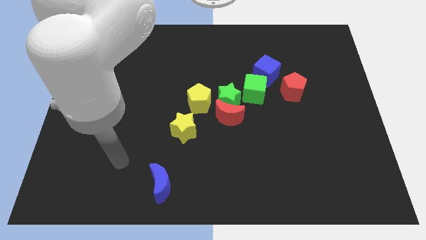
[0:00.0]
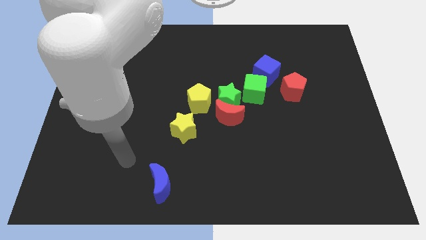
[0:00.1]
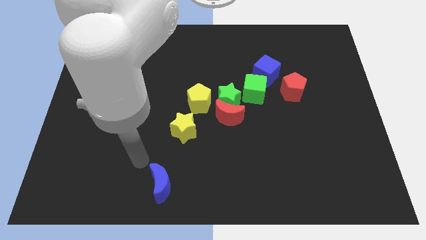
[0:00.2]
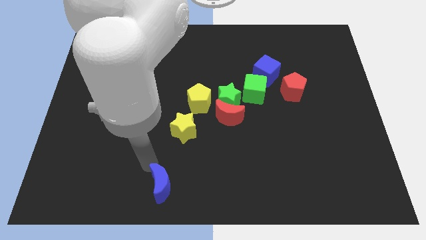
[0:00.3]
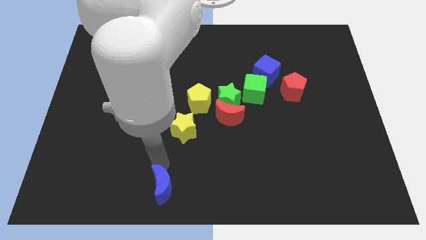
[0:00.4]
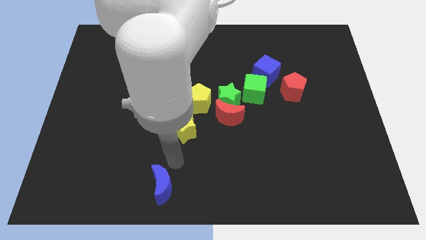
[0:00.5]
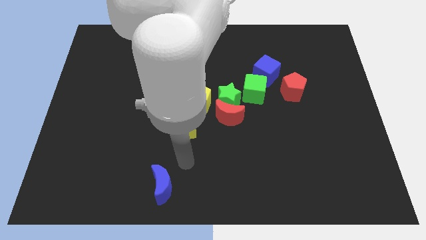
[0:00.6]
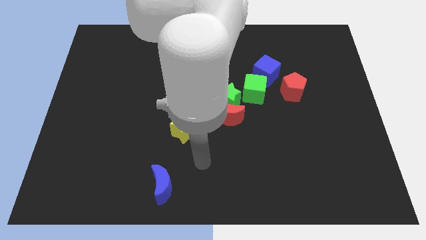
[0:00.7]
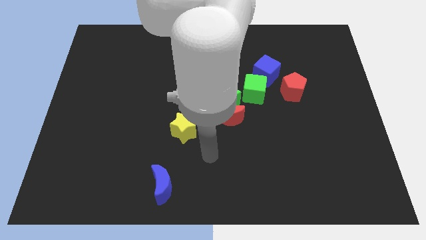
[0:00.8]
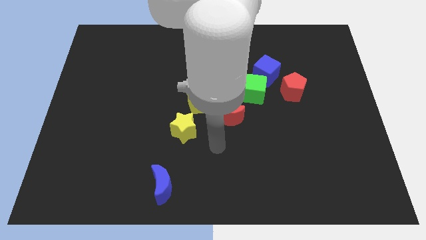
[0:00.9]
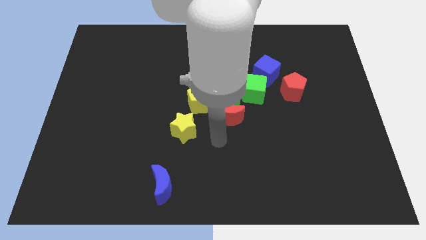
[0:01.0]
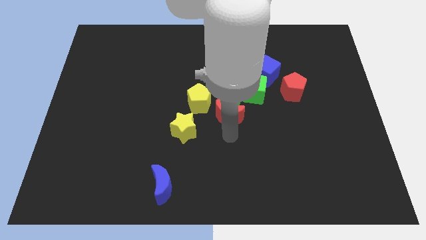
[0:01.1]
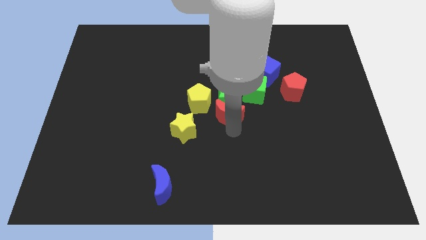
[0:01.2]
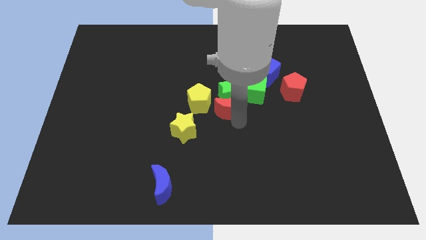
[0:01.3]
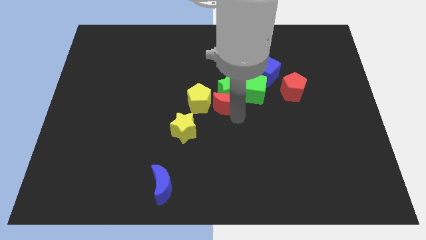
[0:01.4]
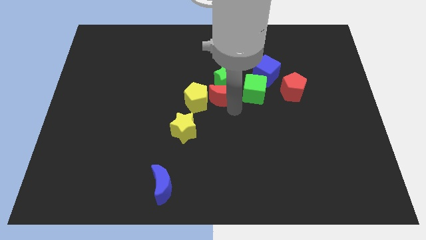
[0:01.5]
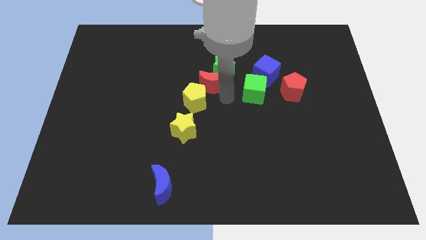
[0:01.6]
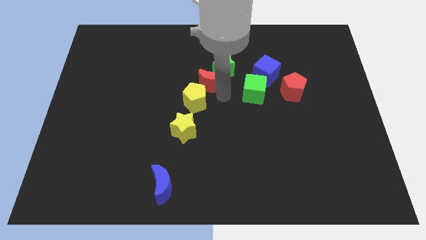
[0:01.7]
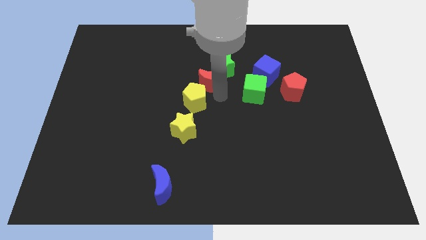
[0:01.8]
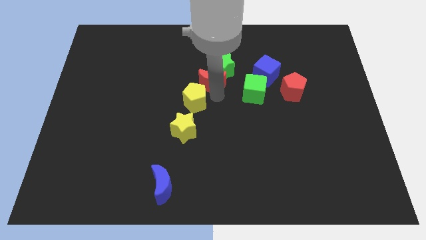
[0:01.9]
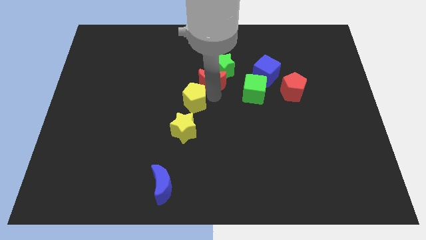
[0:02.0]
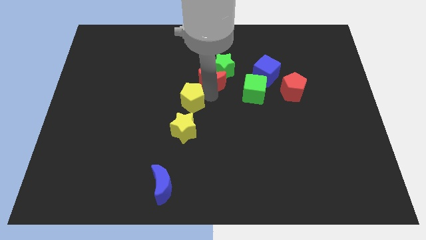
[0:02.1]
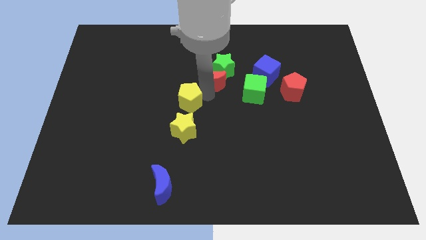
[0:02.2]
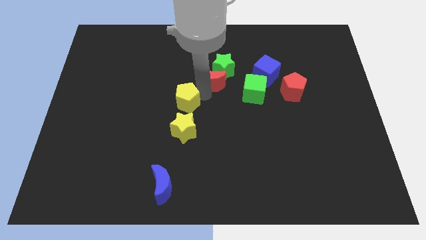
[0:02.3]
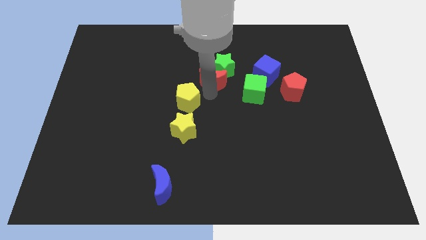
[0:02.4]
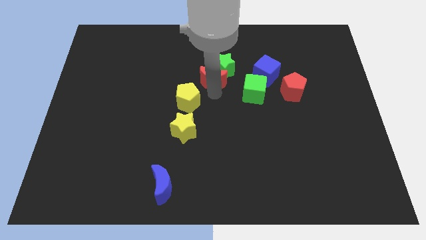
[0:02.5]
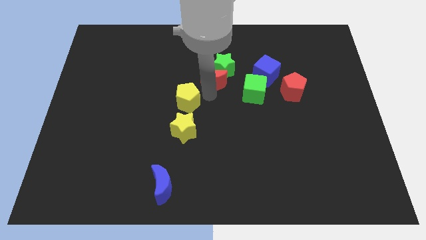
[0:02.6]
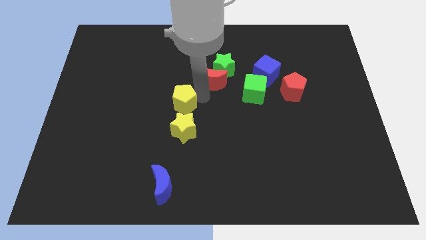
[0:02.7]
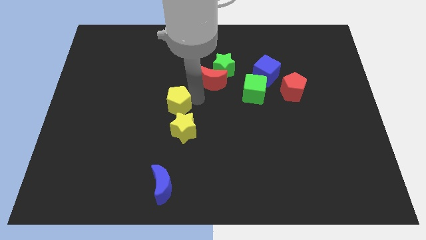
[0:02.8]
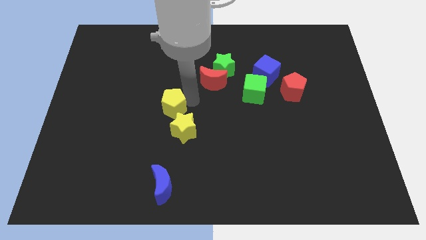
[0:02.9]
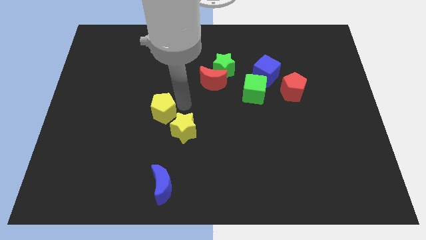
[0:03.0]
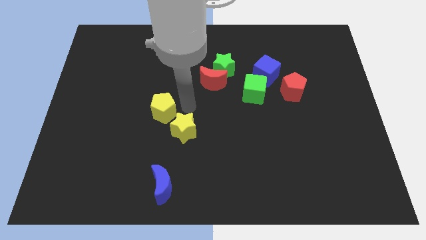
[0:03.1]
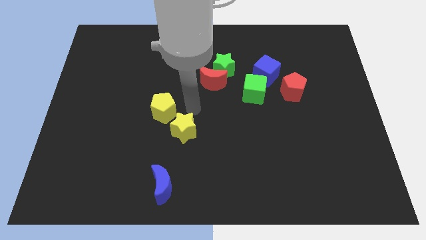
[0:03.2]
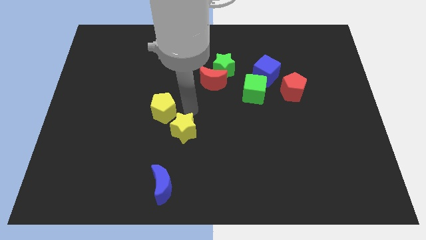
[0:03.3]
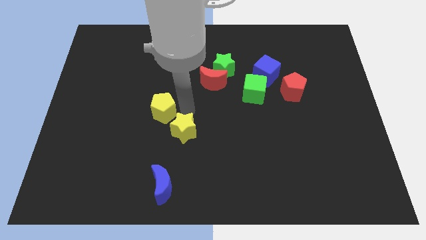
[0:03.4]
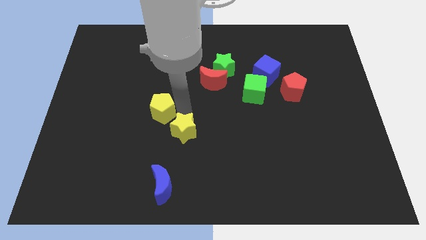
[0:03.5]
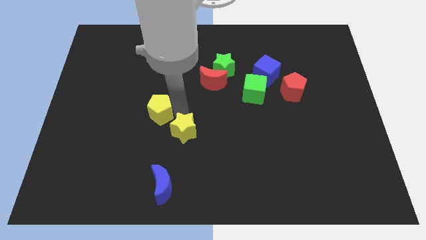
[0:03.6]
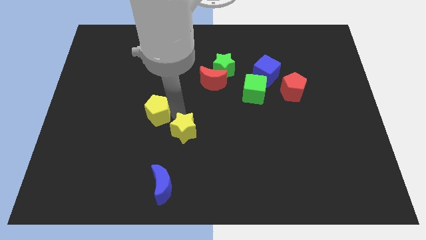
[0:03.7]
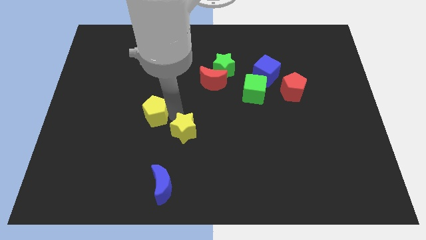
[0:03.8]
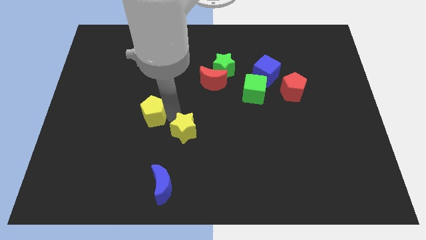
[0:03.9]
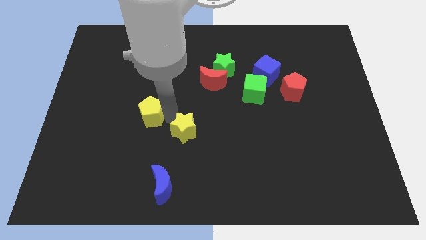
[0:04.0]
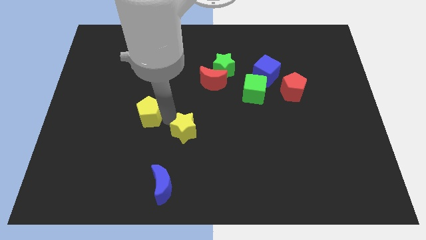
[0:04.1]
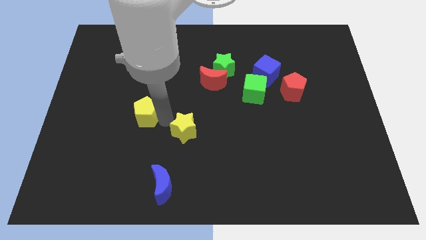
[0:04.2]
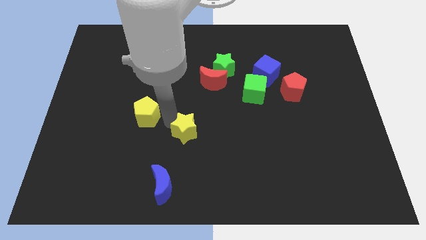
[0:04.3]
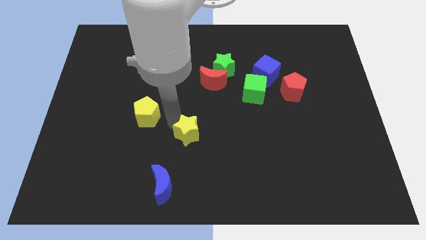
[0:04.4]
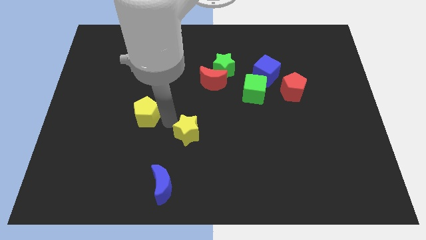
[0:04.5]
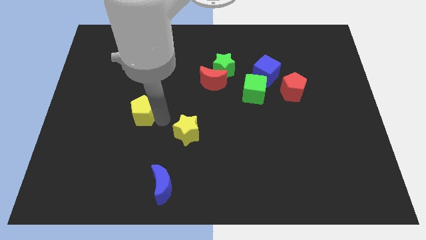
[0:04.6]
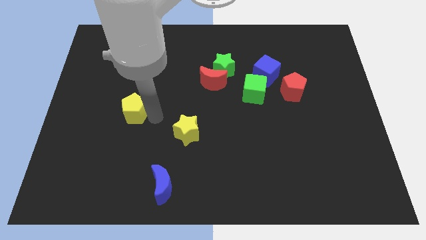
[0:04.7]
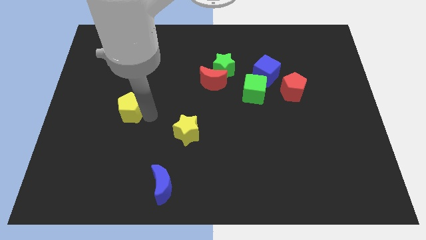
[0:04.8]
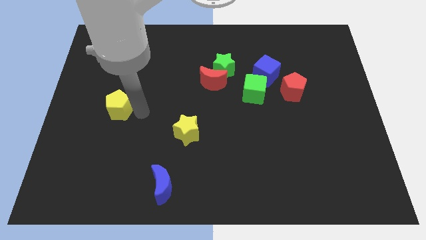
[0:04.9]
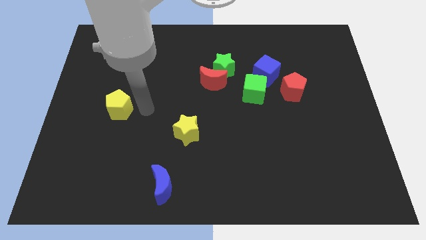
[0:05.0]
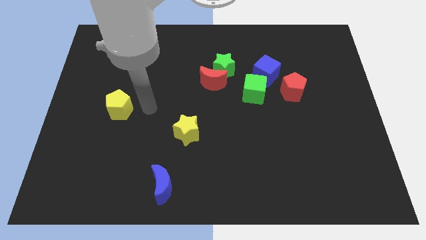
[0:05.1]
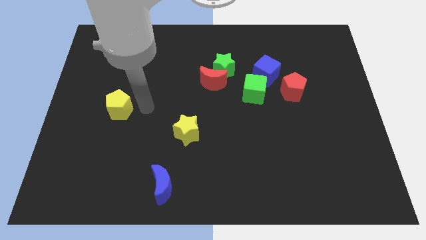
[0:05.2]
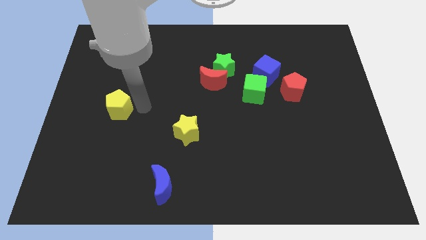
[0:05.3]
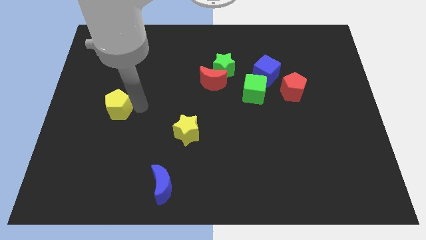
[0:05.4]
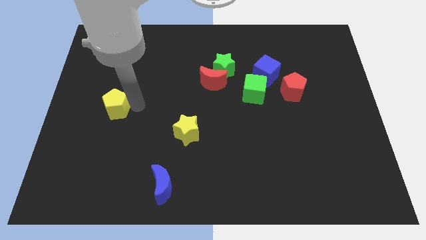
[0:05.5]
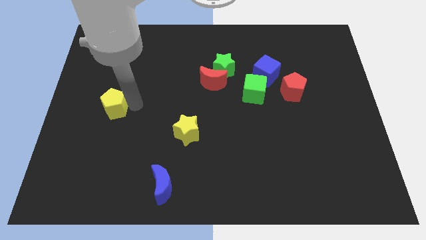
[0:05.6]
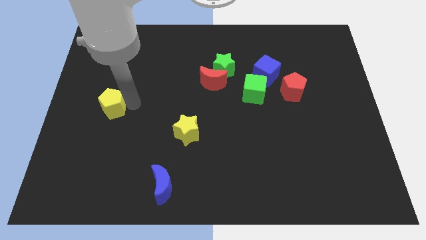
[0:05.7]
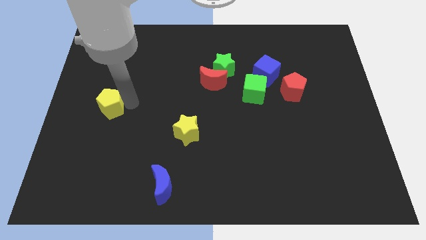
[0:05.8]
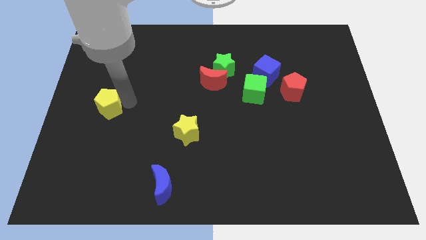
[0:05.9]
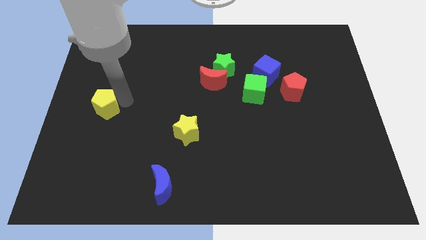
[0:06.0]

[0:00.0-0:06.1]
move the yellow pentagon to the center left
